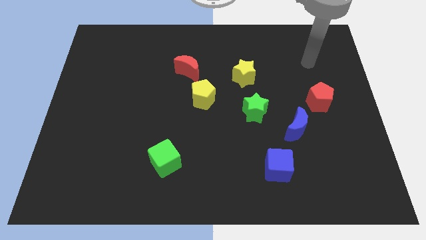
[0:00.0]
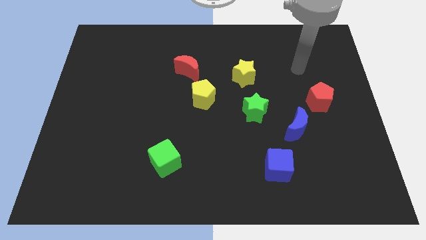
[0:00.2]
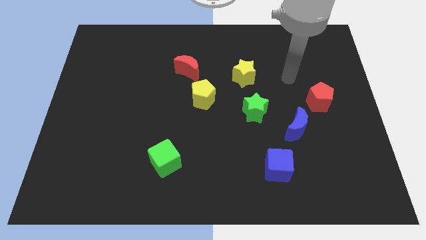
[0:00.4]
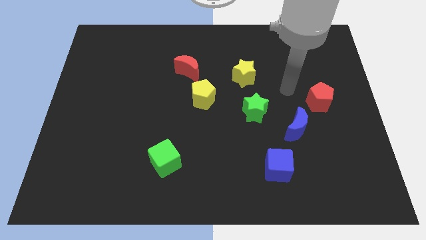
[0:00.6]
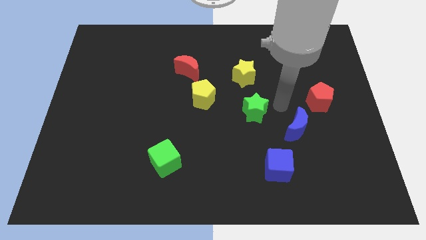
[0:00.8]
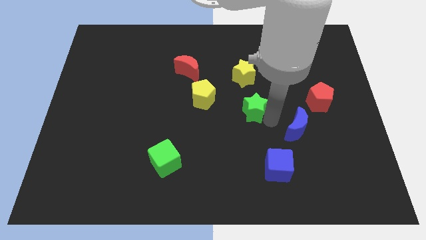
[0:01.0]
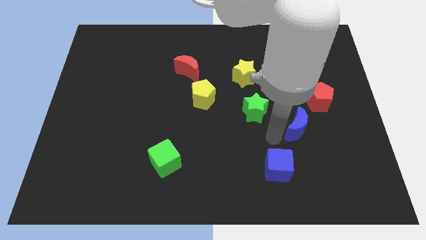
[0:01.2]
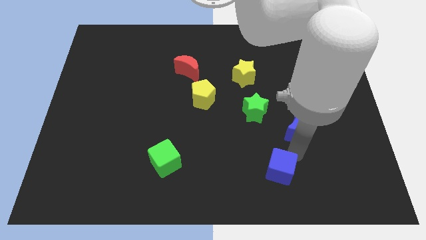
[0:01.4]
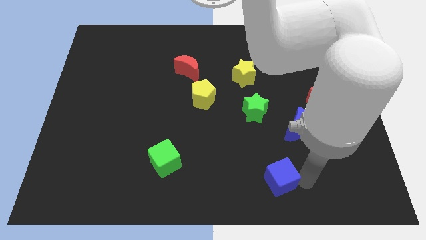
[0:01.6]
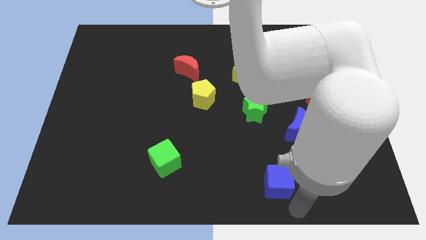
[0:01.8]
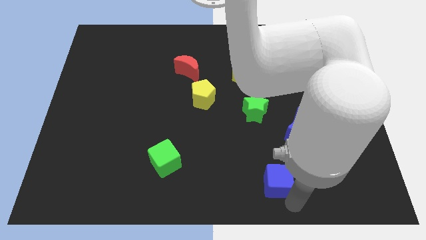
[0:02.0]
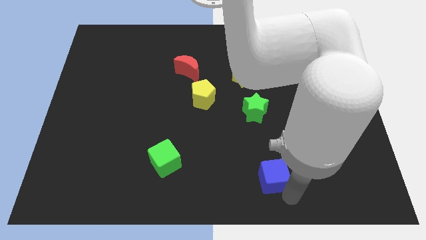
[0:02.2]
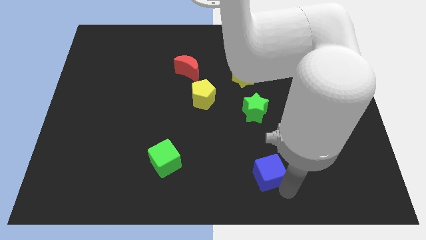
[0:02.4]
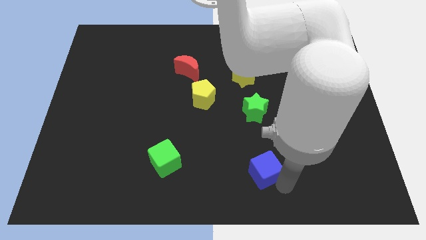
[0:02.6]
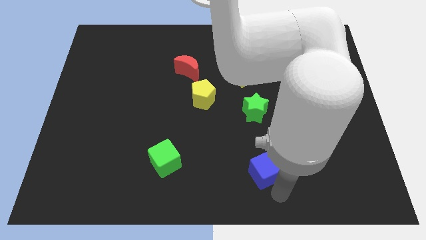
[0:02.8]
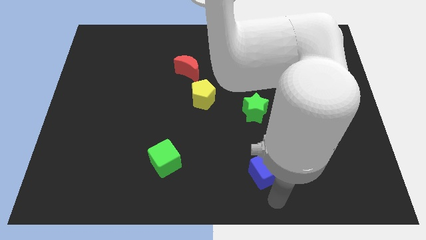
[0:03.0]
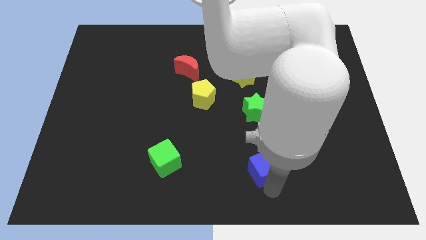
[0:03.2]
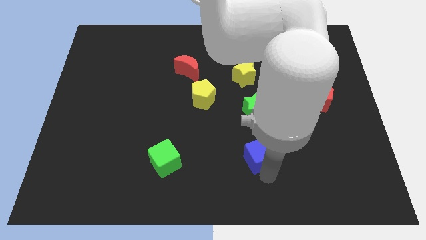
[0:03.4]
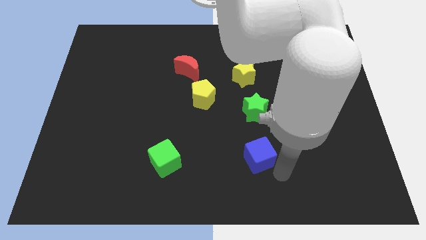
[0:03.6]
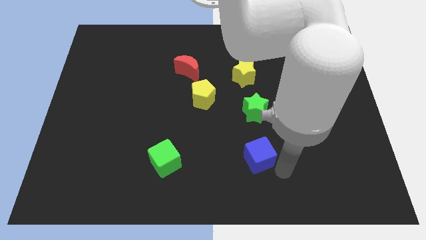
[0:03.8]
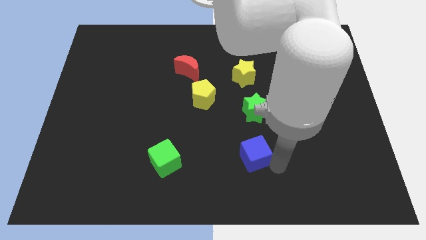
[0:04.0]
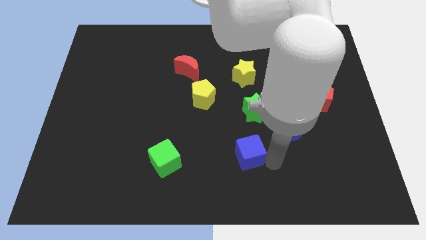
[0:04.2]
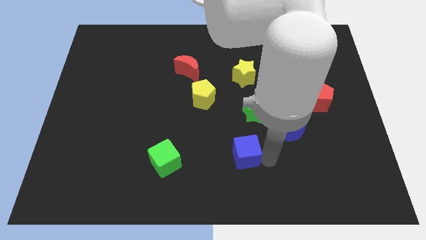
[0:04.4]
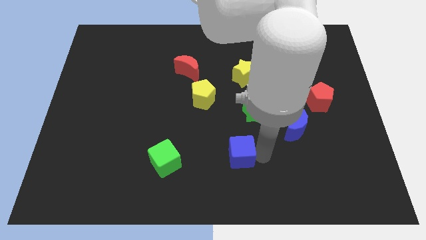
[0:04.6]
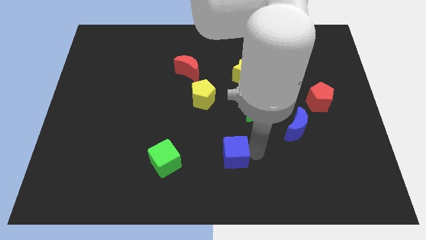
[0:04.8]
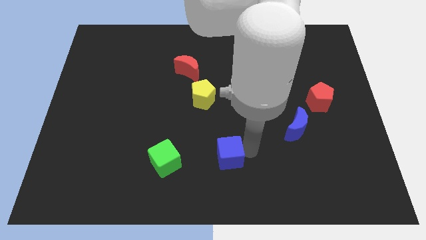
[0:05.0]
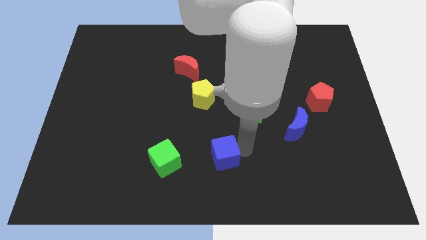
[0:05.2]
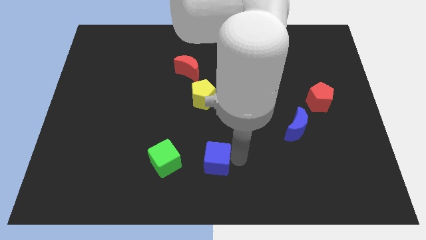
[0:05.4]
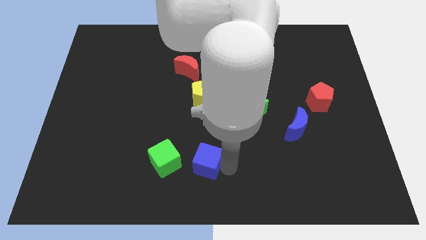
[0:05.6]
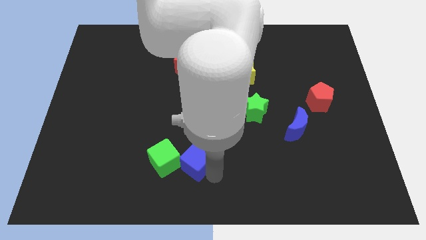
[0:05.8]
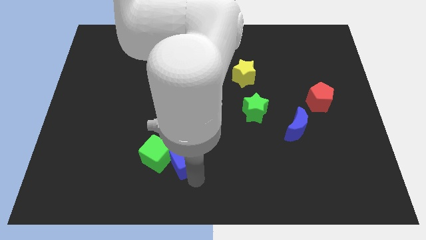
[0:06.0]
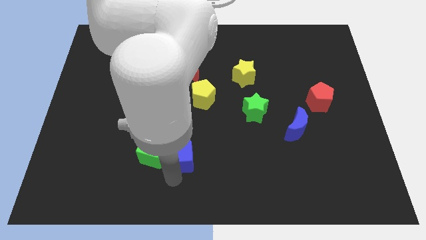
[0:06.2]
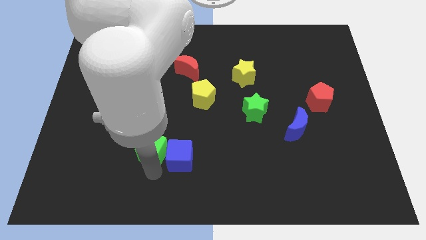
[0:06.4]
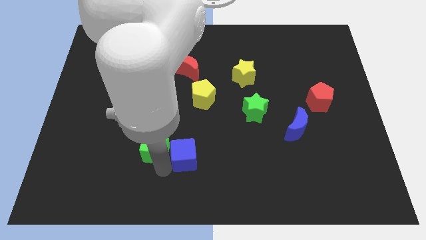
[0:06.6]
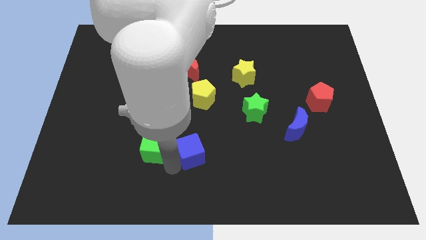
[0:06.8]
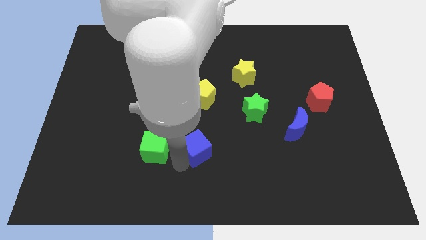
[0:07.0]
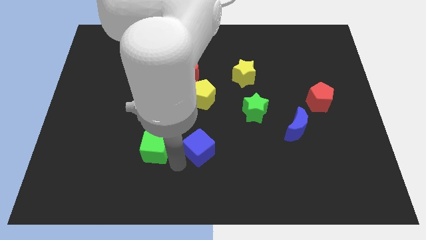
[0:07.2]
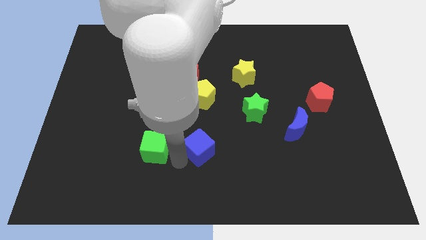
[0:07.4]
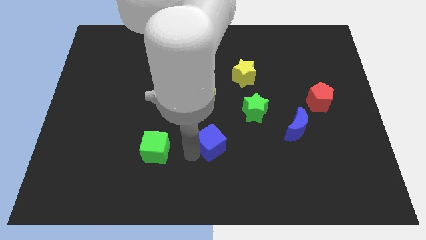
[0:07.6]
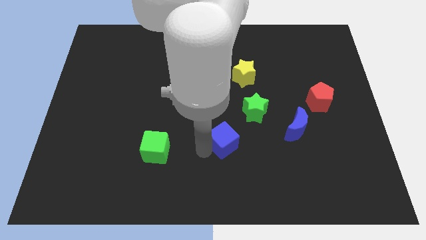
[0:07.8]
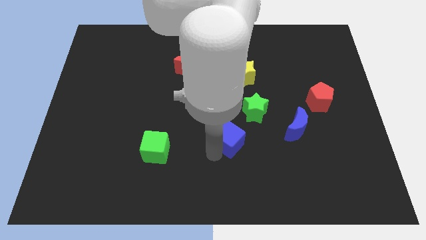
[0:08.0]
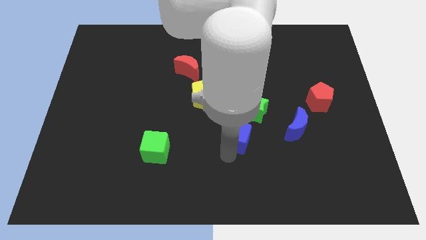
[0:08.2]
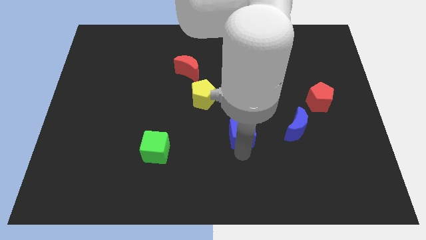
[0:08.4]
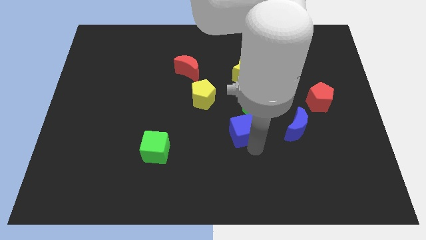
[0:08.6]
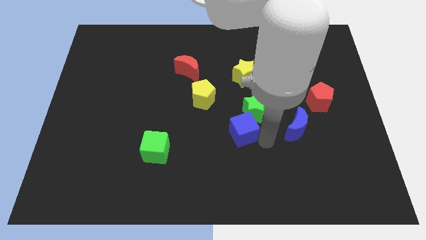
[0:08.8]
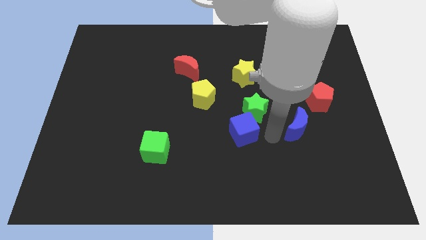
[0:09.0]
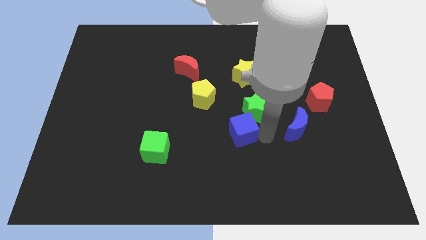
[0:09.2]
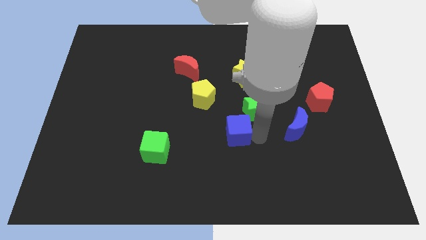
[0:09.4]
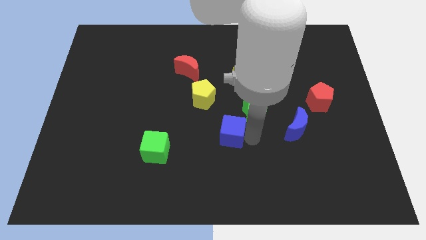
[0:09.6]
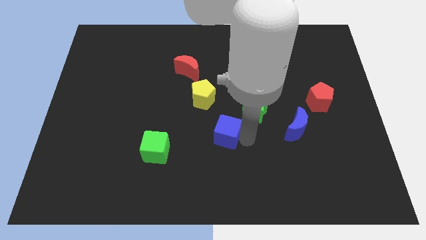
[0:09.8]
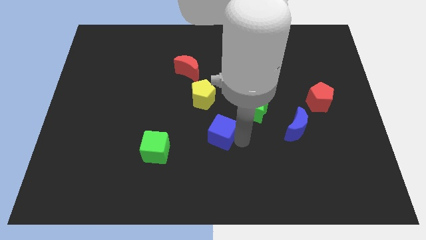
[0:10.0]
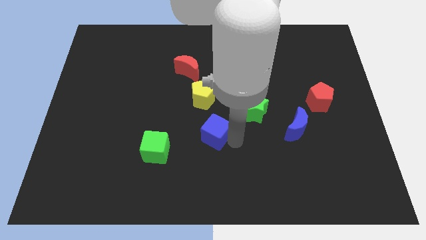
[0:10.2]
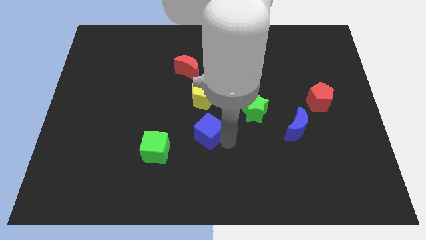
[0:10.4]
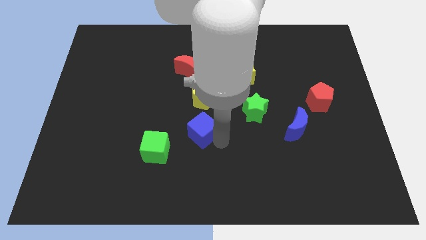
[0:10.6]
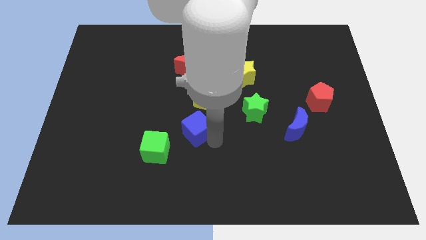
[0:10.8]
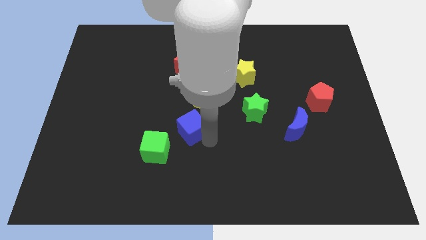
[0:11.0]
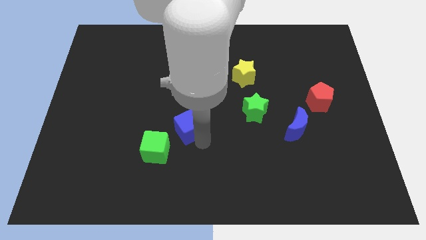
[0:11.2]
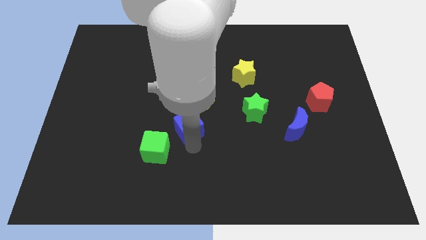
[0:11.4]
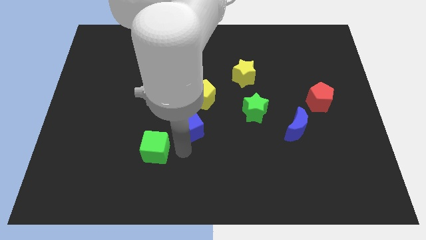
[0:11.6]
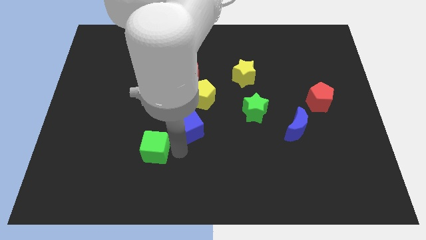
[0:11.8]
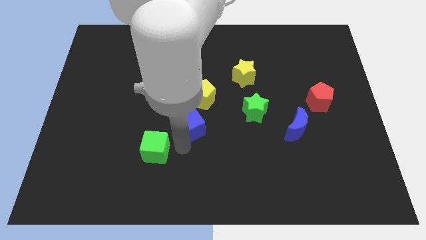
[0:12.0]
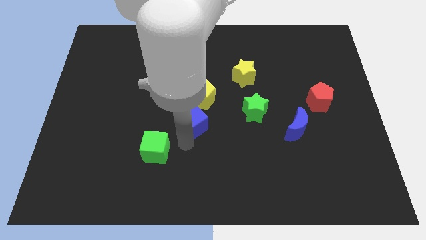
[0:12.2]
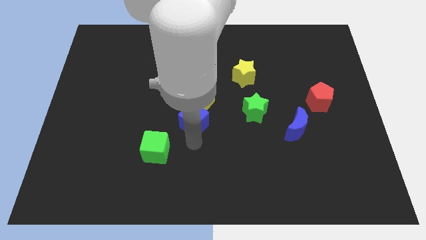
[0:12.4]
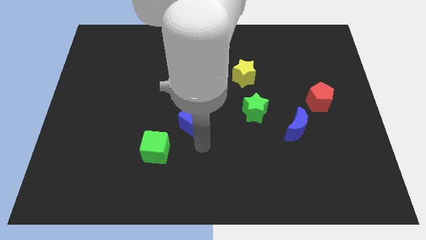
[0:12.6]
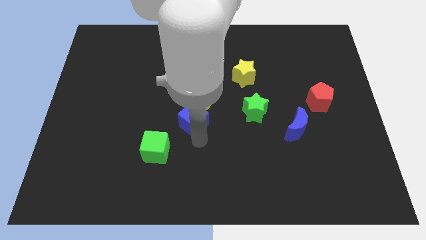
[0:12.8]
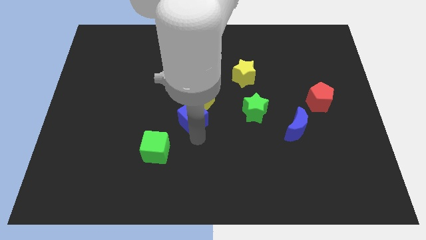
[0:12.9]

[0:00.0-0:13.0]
put the blue cube below the red moon
